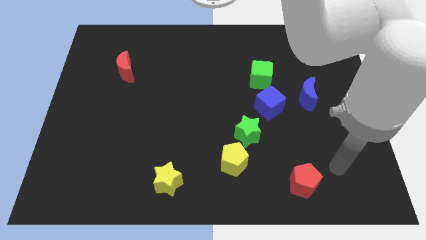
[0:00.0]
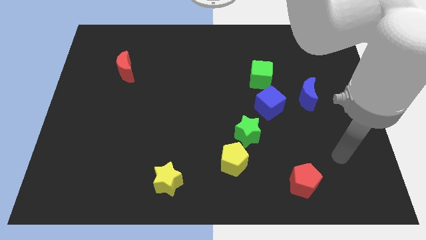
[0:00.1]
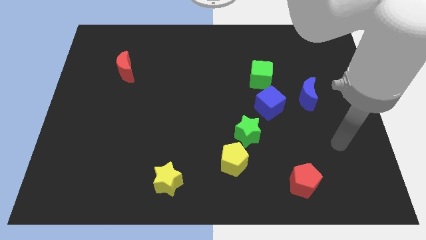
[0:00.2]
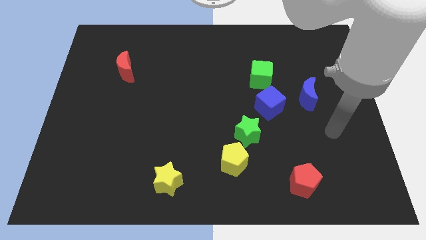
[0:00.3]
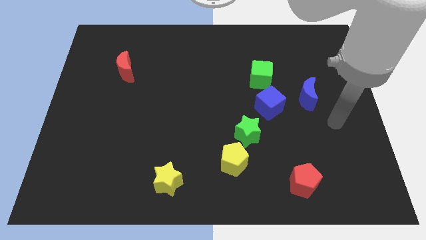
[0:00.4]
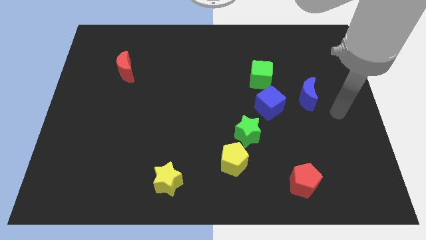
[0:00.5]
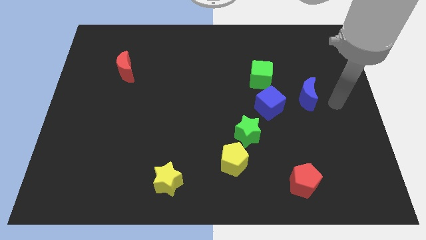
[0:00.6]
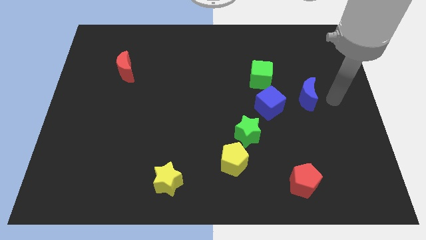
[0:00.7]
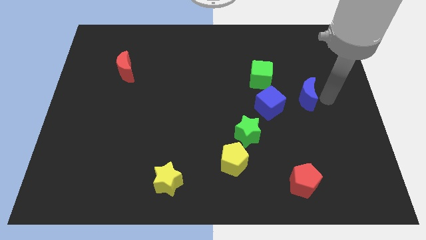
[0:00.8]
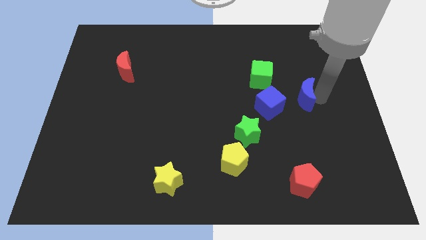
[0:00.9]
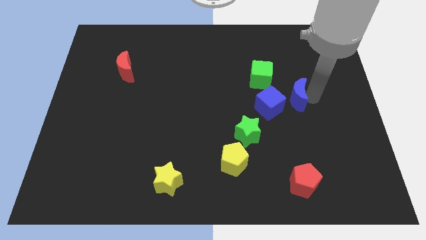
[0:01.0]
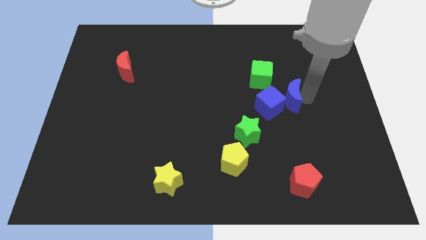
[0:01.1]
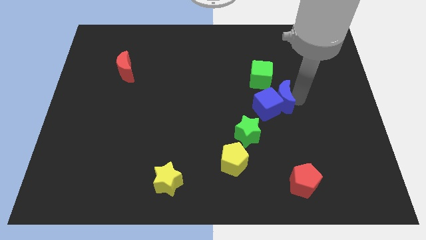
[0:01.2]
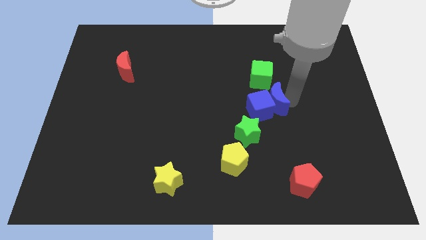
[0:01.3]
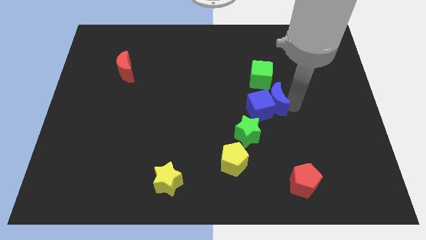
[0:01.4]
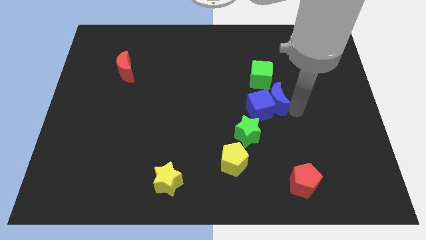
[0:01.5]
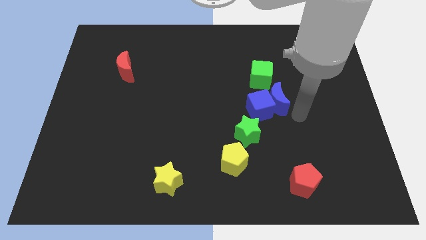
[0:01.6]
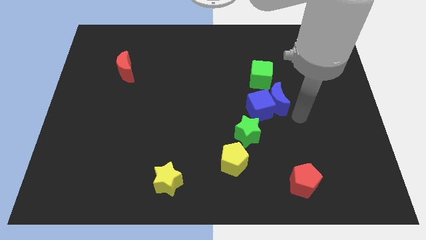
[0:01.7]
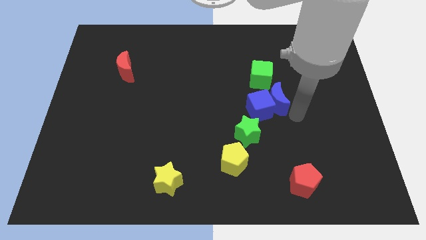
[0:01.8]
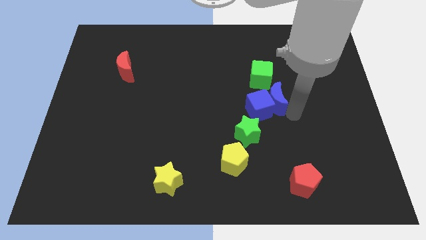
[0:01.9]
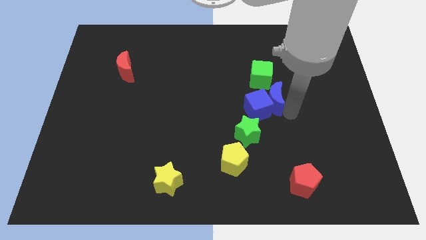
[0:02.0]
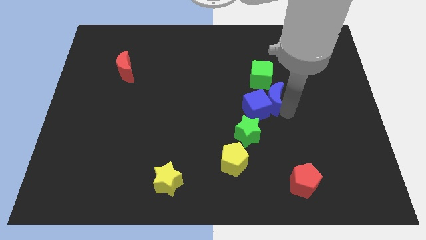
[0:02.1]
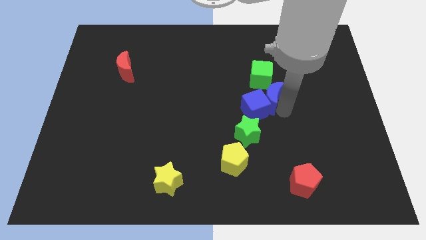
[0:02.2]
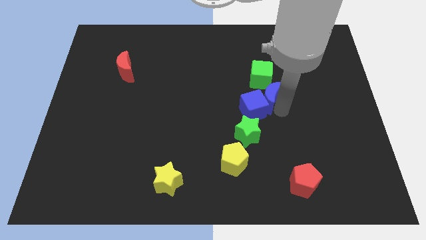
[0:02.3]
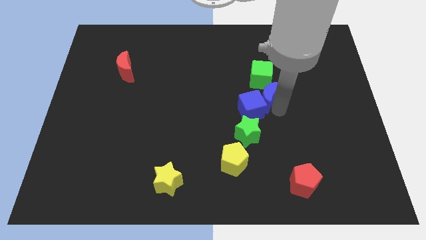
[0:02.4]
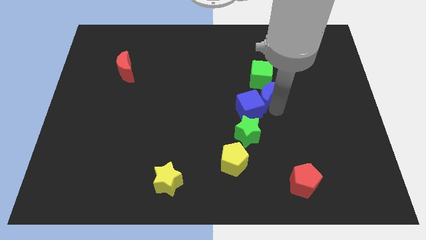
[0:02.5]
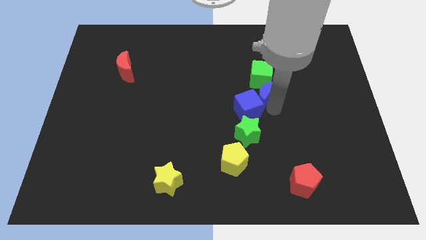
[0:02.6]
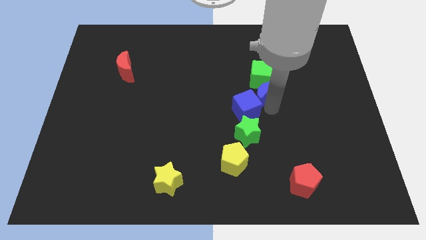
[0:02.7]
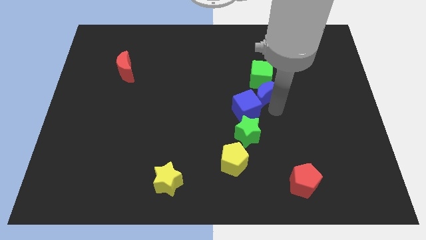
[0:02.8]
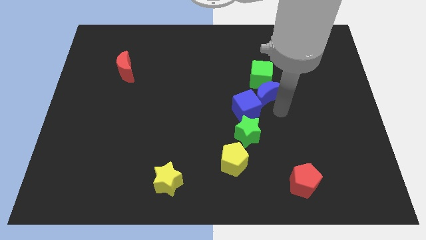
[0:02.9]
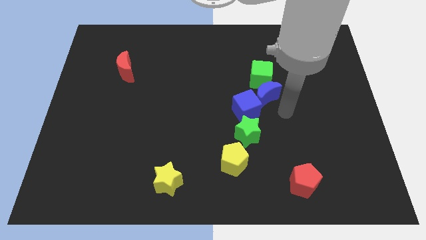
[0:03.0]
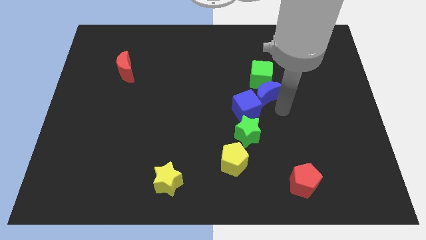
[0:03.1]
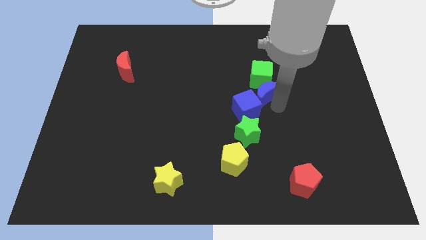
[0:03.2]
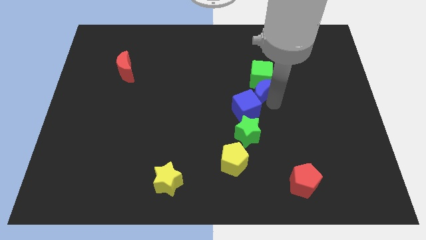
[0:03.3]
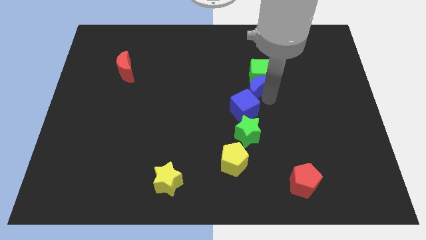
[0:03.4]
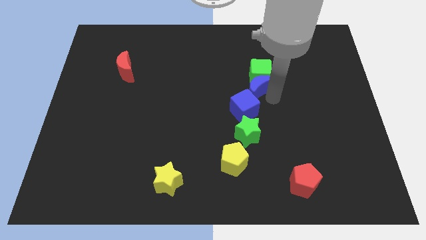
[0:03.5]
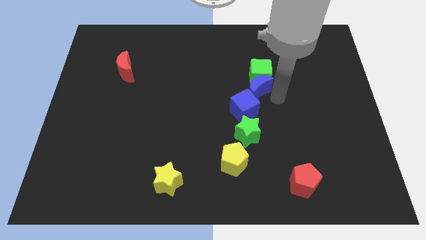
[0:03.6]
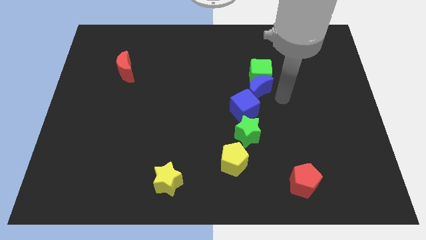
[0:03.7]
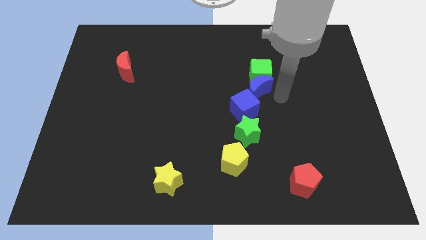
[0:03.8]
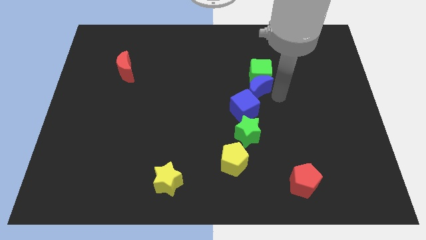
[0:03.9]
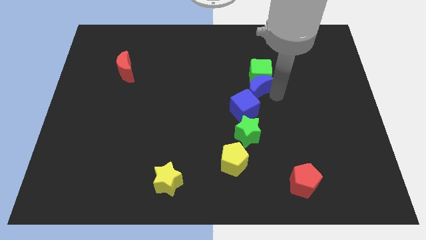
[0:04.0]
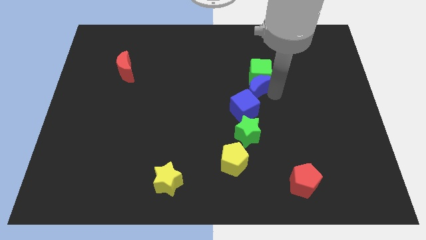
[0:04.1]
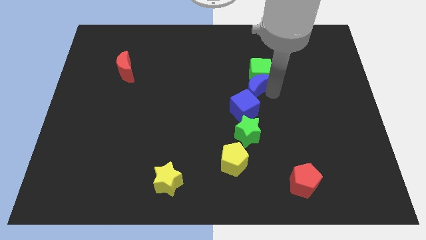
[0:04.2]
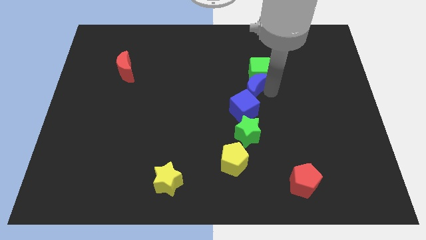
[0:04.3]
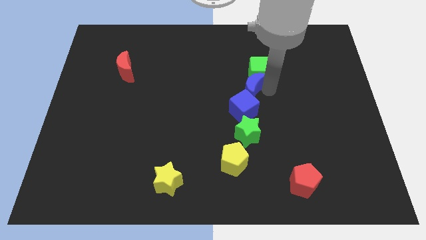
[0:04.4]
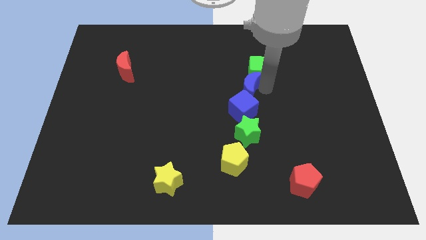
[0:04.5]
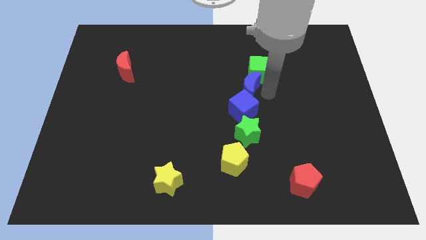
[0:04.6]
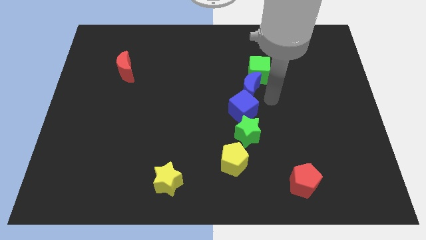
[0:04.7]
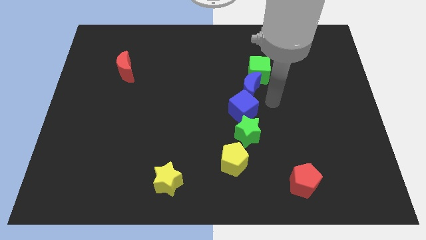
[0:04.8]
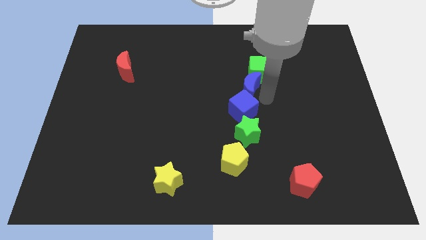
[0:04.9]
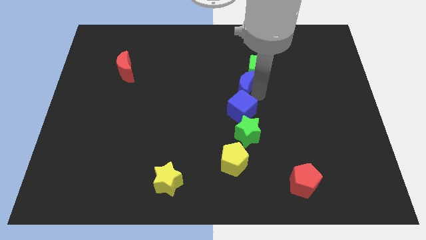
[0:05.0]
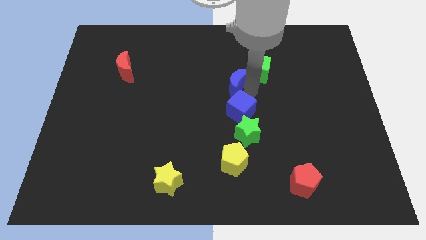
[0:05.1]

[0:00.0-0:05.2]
slide the blue moon to the left side of the green cube

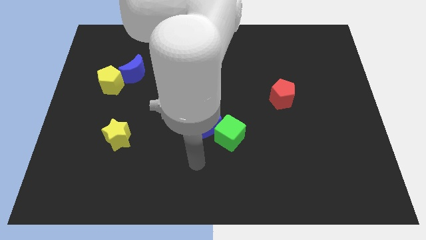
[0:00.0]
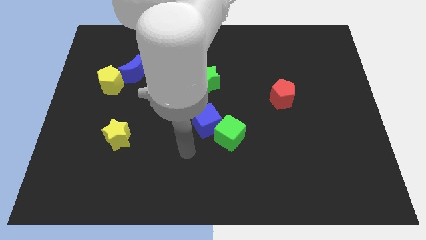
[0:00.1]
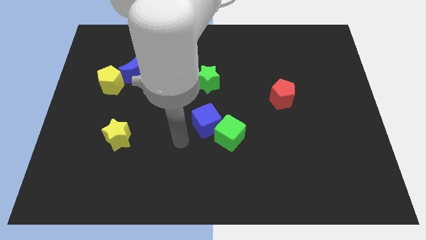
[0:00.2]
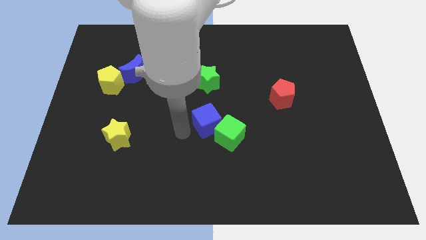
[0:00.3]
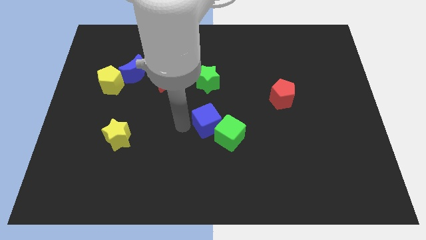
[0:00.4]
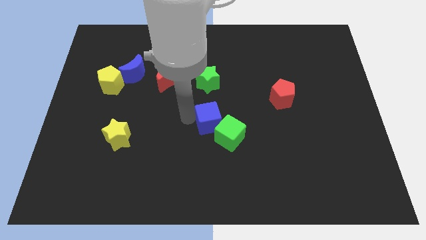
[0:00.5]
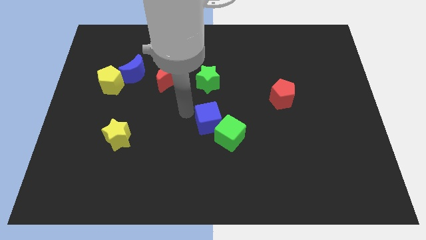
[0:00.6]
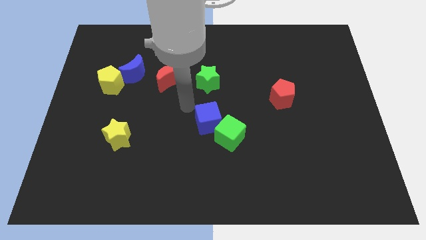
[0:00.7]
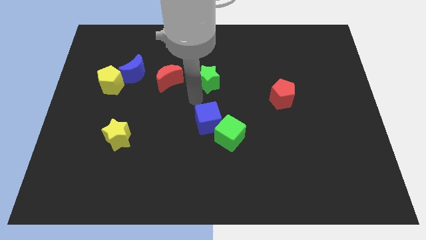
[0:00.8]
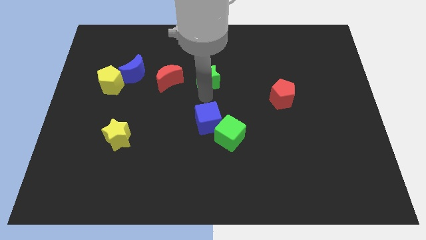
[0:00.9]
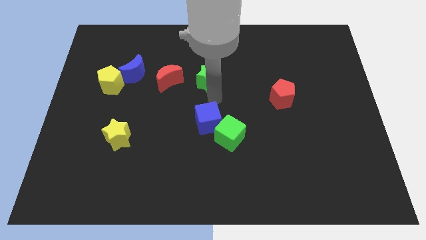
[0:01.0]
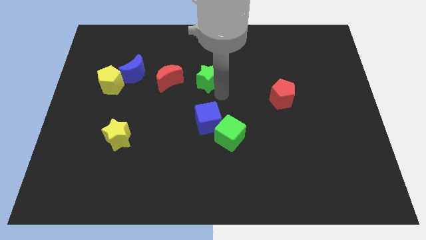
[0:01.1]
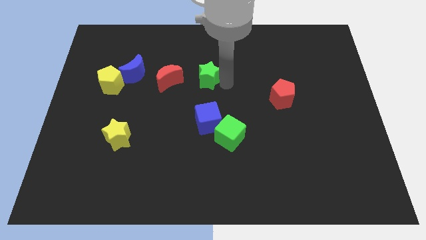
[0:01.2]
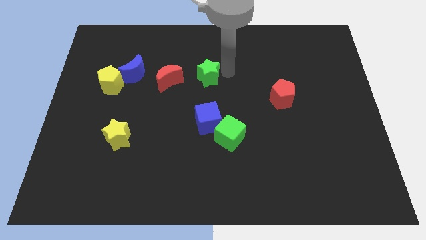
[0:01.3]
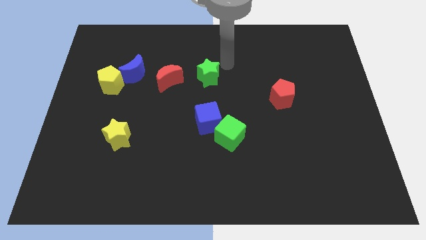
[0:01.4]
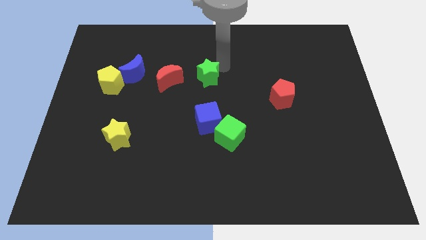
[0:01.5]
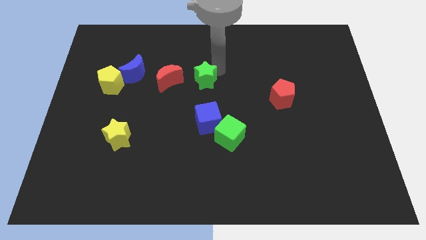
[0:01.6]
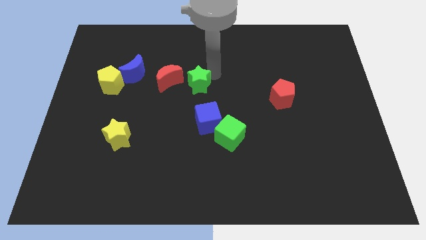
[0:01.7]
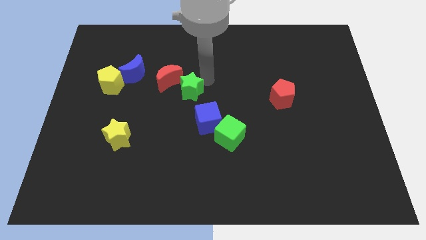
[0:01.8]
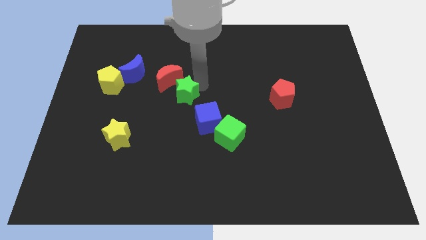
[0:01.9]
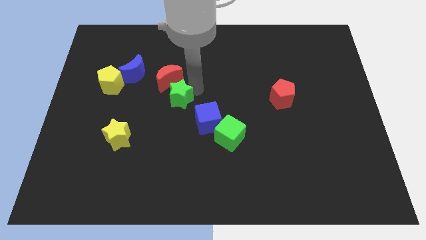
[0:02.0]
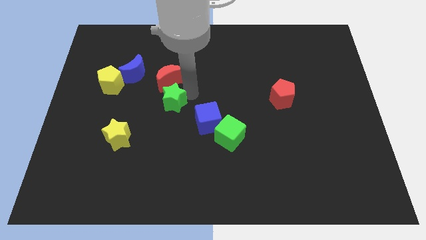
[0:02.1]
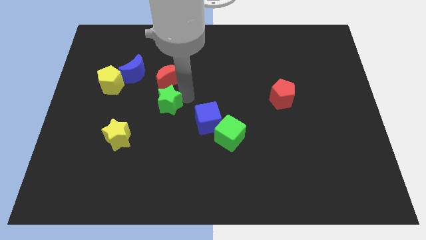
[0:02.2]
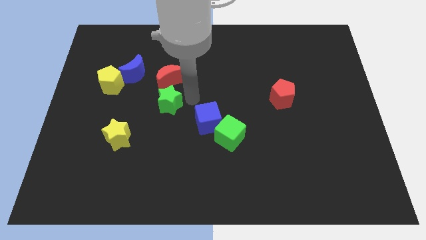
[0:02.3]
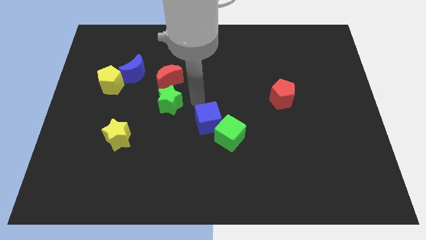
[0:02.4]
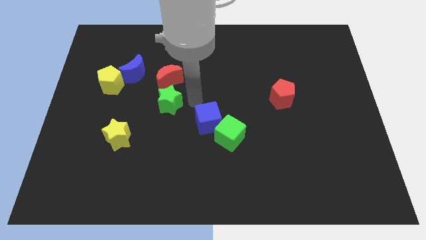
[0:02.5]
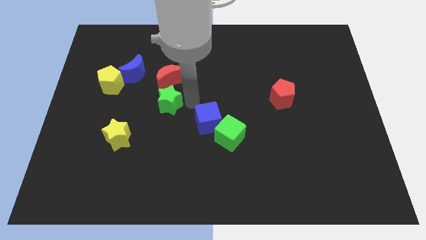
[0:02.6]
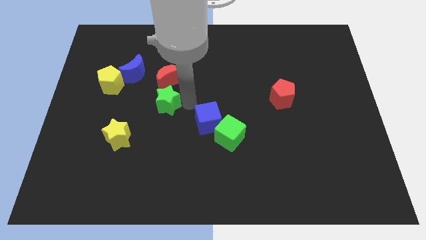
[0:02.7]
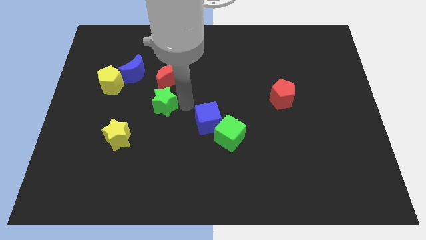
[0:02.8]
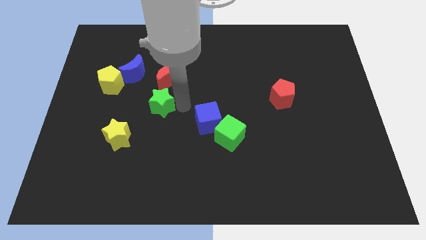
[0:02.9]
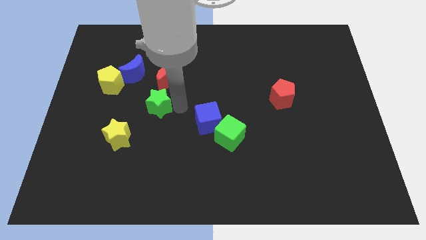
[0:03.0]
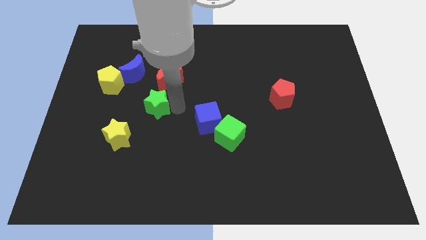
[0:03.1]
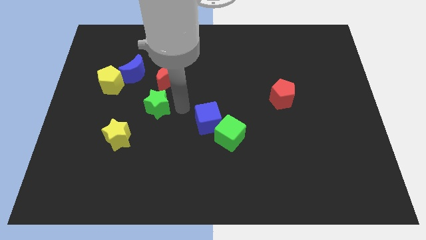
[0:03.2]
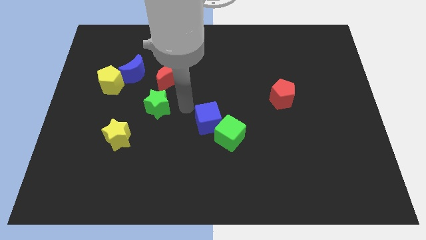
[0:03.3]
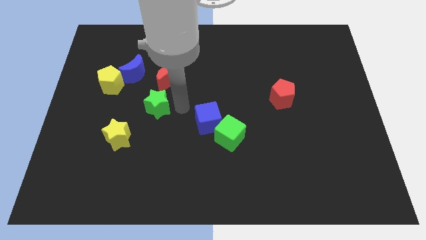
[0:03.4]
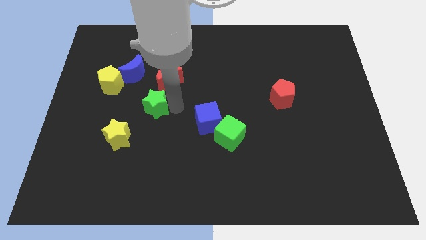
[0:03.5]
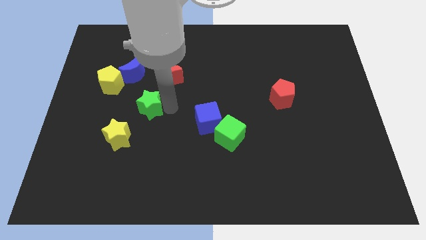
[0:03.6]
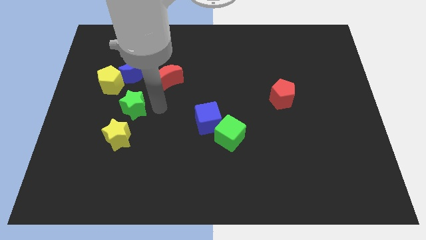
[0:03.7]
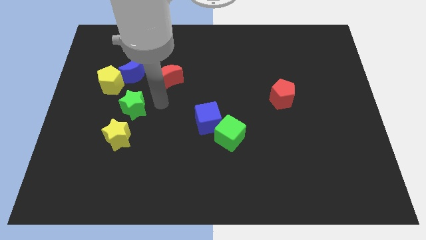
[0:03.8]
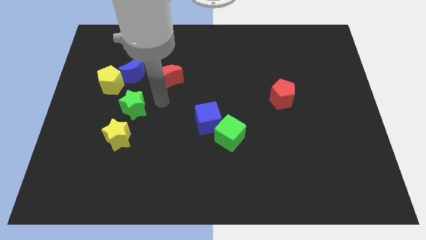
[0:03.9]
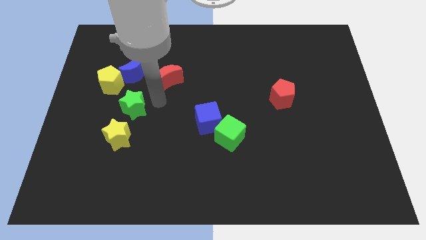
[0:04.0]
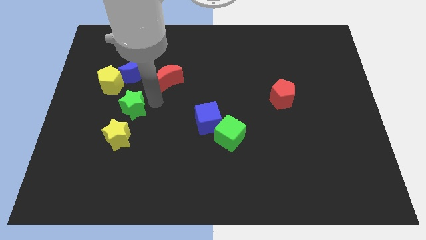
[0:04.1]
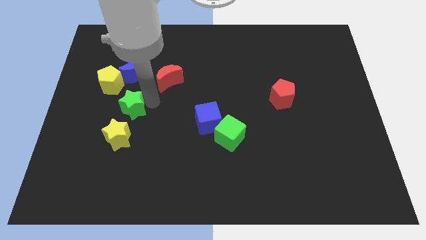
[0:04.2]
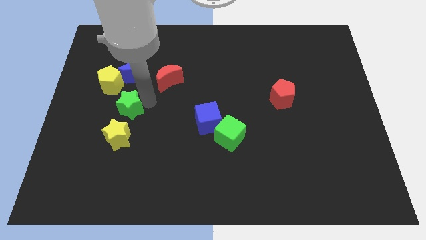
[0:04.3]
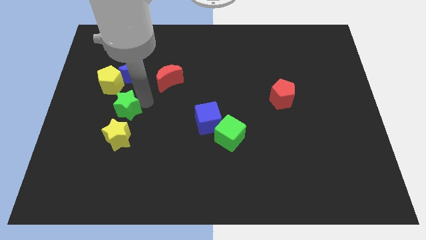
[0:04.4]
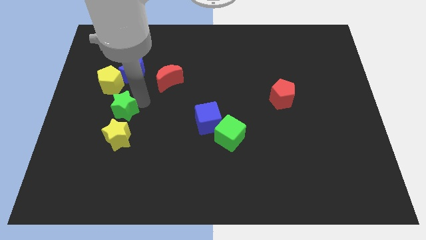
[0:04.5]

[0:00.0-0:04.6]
push the green star to the bottom of the yellow pentagon
